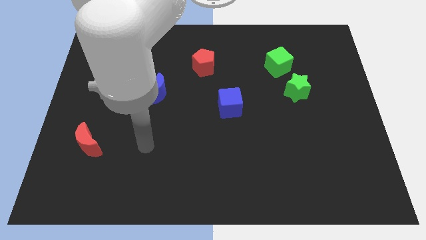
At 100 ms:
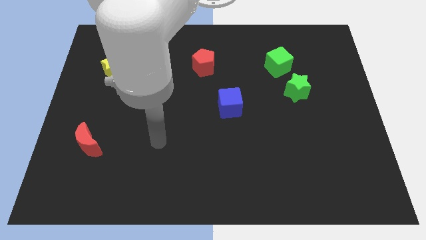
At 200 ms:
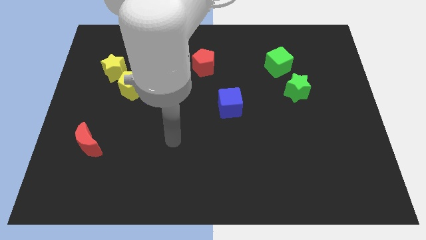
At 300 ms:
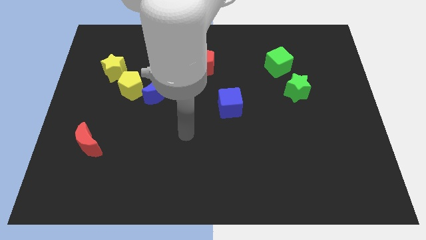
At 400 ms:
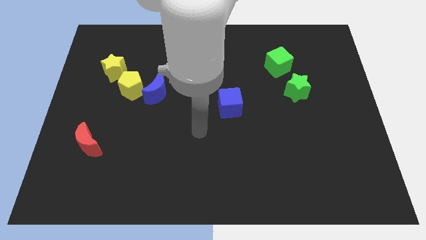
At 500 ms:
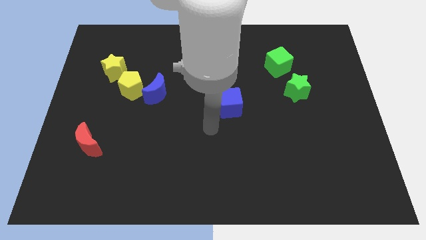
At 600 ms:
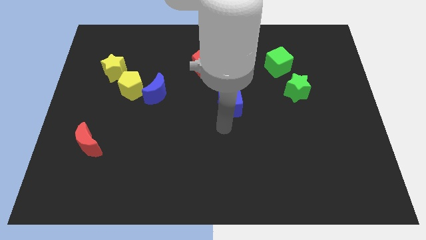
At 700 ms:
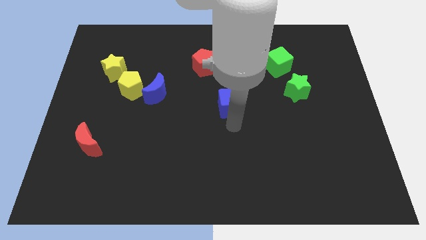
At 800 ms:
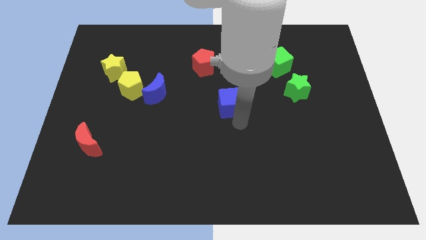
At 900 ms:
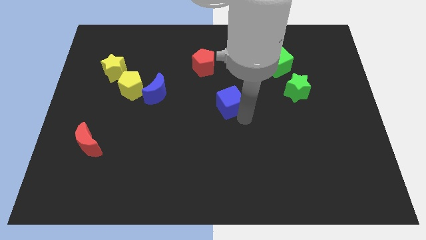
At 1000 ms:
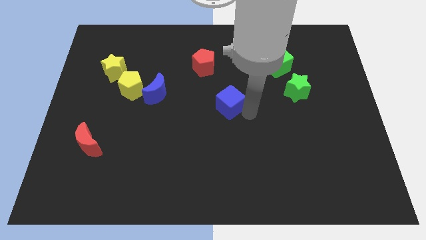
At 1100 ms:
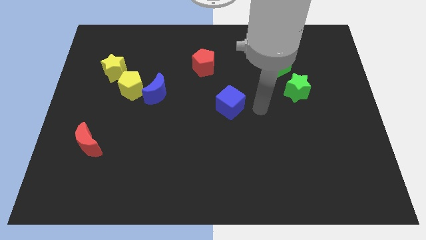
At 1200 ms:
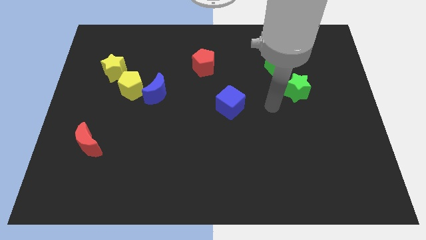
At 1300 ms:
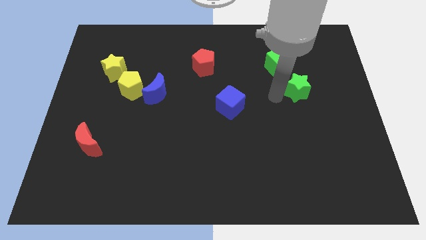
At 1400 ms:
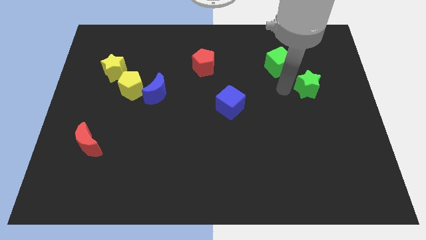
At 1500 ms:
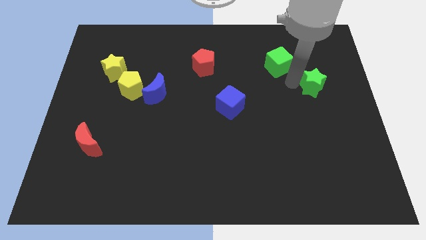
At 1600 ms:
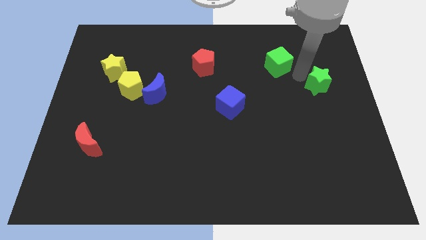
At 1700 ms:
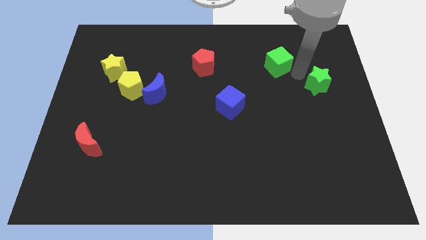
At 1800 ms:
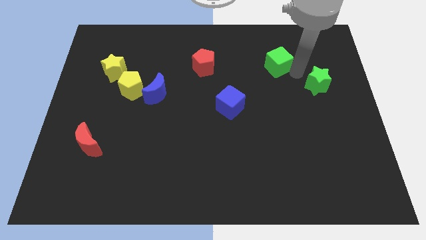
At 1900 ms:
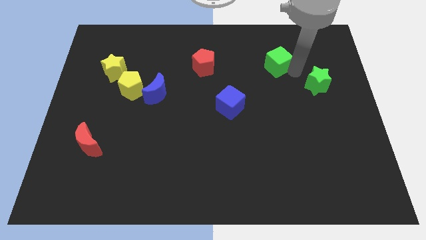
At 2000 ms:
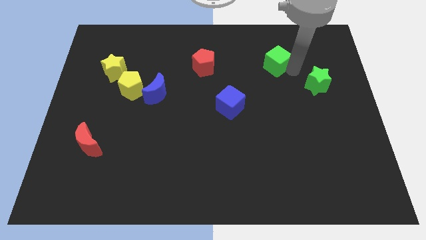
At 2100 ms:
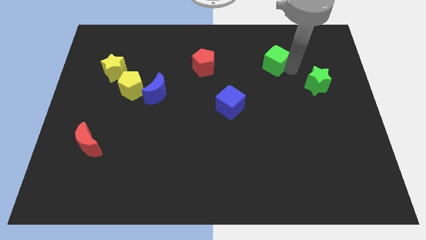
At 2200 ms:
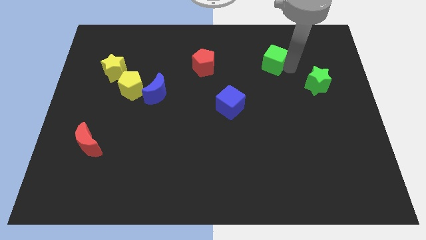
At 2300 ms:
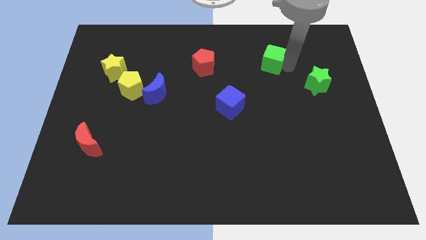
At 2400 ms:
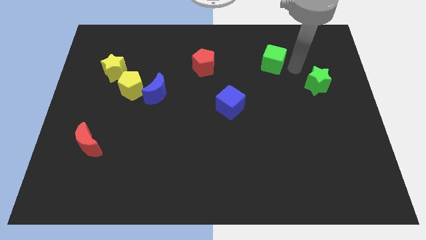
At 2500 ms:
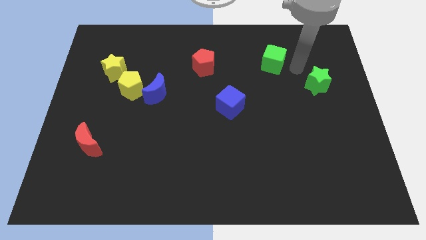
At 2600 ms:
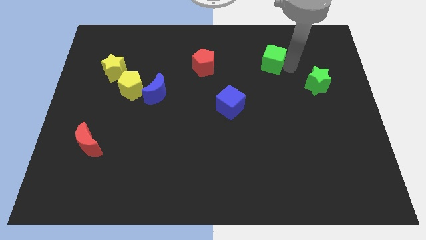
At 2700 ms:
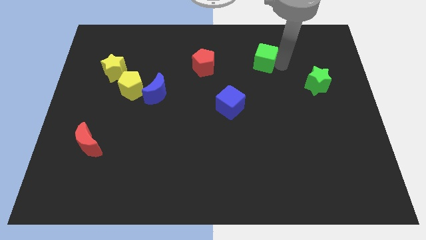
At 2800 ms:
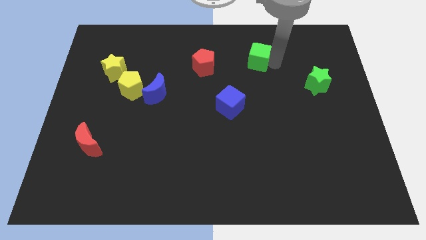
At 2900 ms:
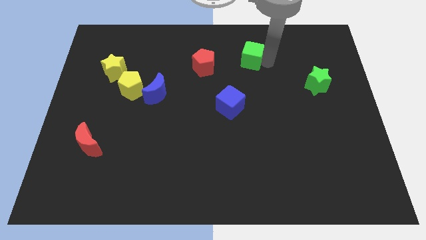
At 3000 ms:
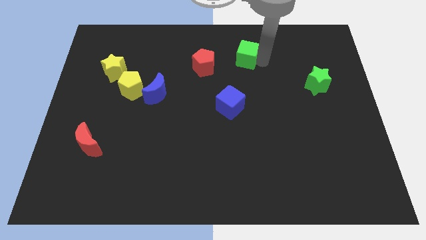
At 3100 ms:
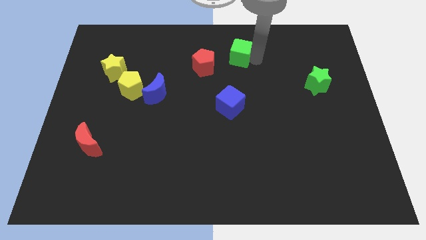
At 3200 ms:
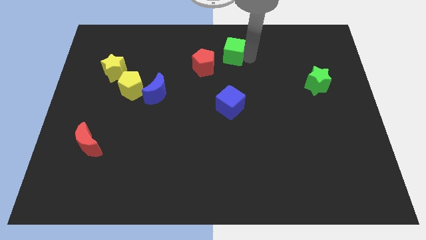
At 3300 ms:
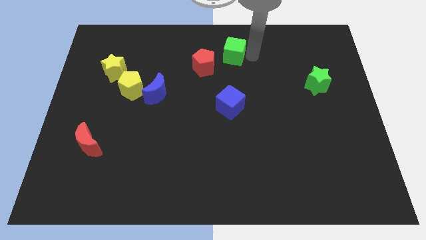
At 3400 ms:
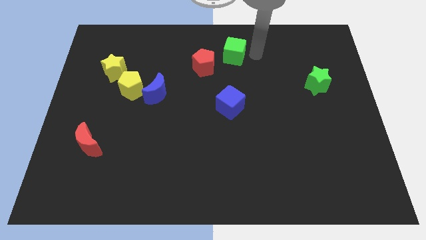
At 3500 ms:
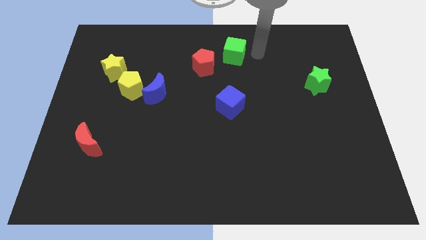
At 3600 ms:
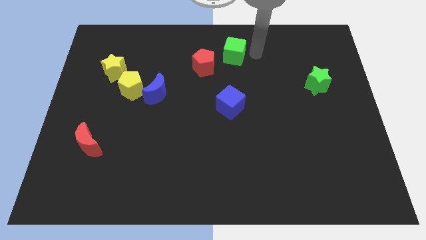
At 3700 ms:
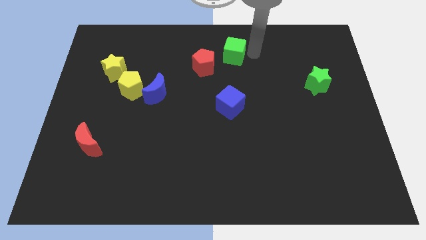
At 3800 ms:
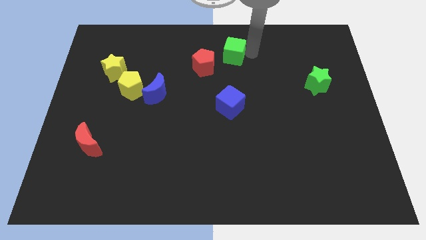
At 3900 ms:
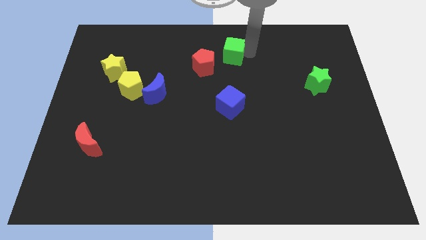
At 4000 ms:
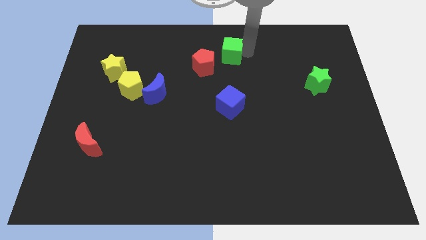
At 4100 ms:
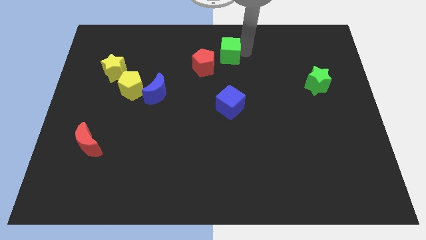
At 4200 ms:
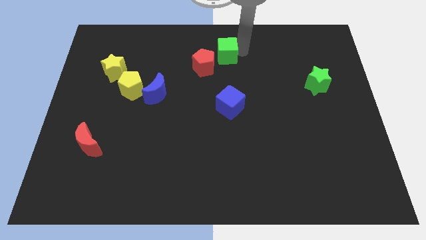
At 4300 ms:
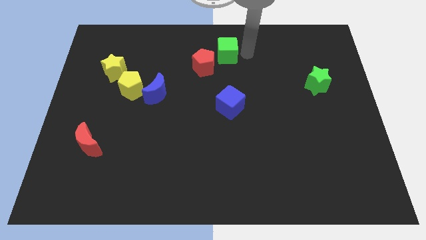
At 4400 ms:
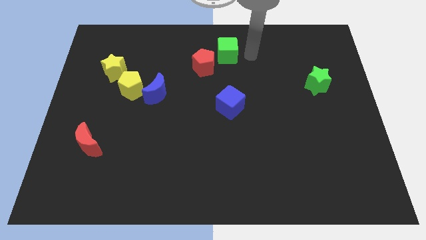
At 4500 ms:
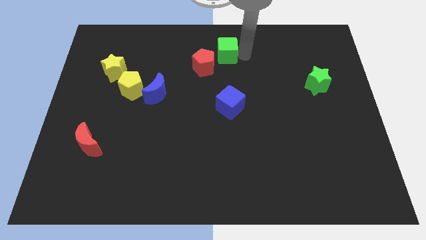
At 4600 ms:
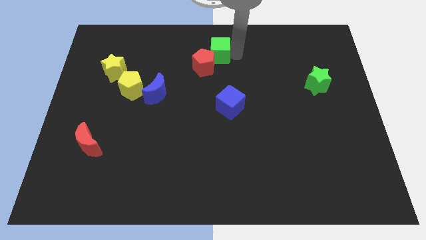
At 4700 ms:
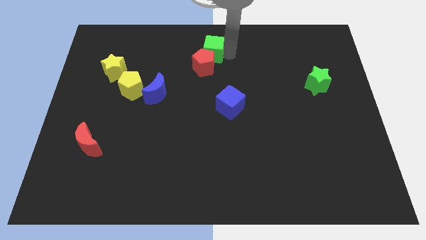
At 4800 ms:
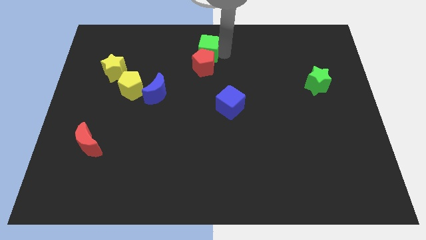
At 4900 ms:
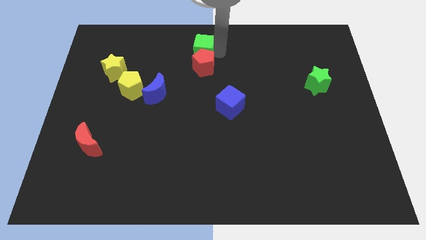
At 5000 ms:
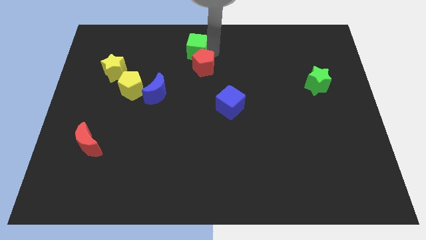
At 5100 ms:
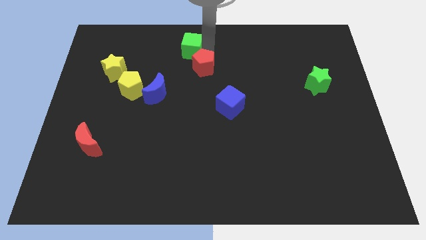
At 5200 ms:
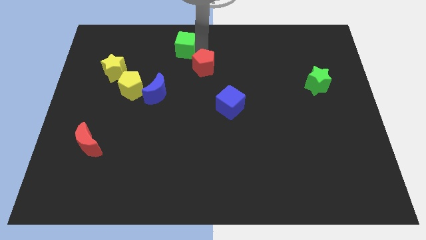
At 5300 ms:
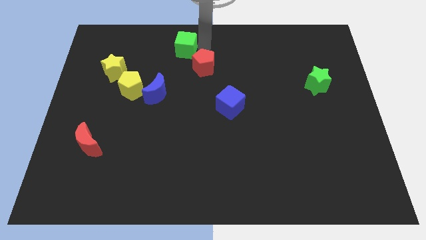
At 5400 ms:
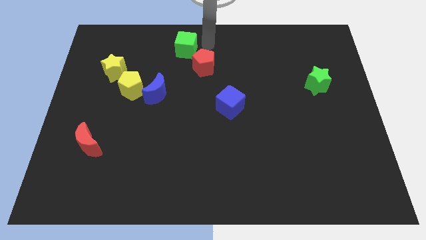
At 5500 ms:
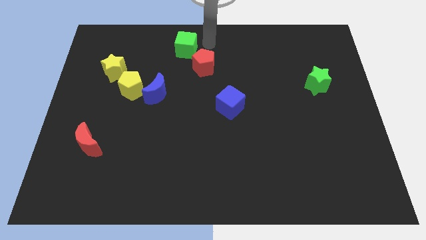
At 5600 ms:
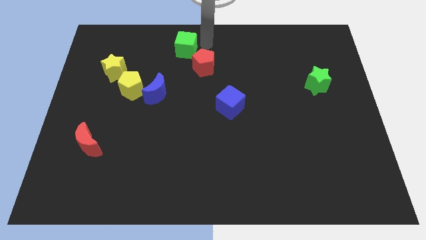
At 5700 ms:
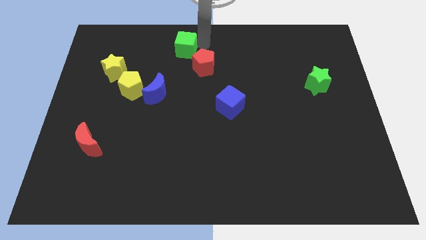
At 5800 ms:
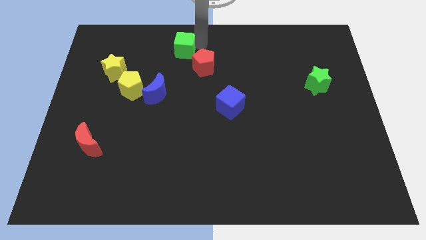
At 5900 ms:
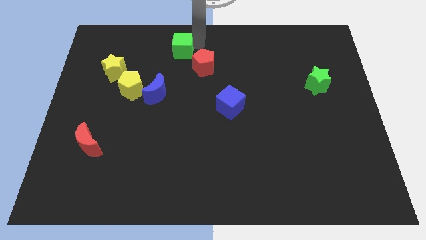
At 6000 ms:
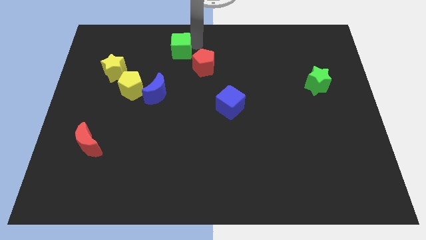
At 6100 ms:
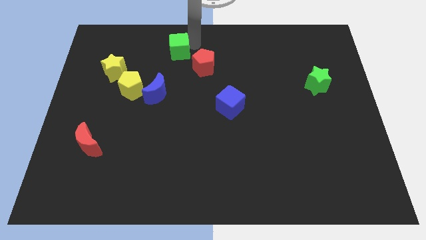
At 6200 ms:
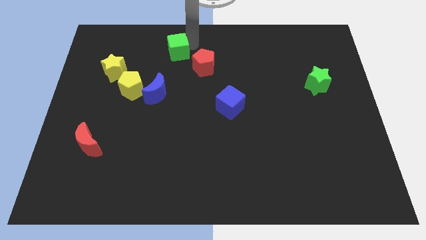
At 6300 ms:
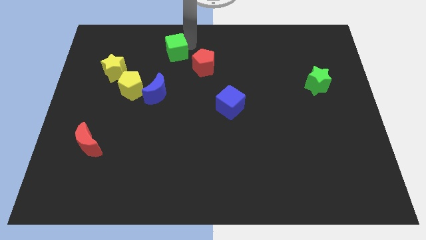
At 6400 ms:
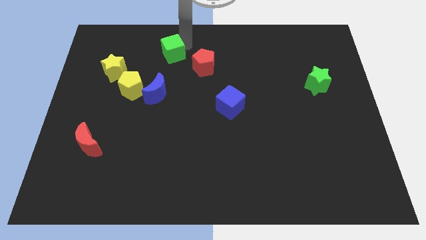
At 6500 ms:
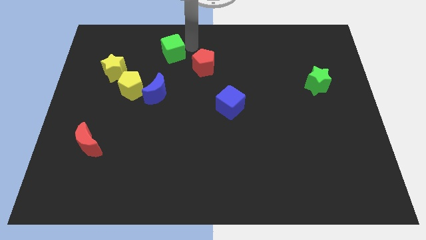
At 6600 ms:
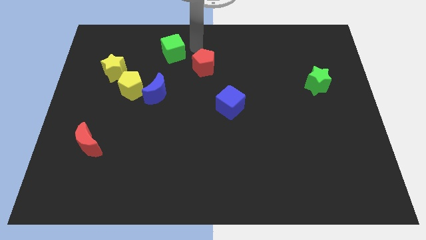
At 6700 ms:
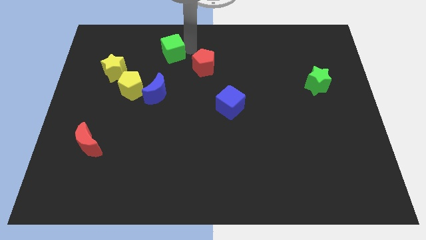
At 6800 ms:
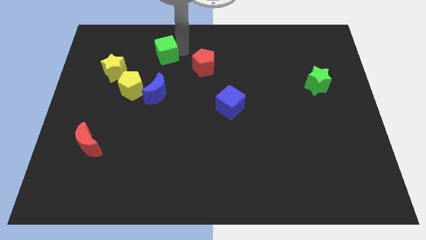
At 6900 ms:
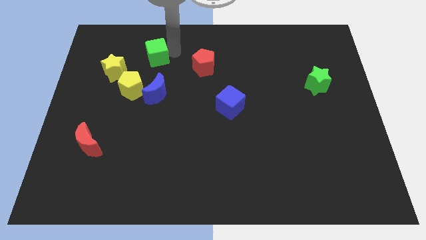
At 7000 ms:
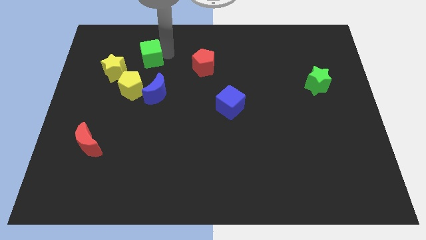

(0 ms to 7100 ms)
push the green cube to the top side of the yellow pentagon

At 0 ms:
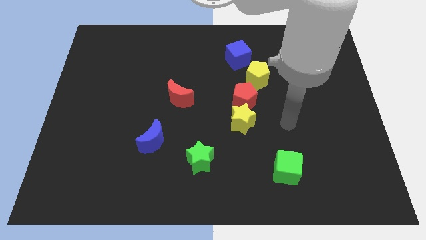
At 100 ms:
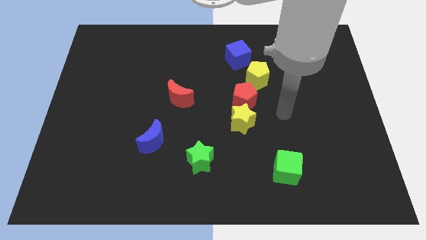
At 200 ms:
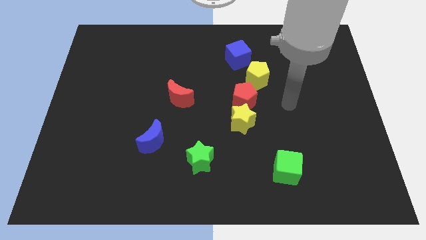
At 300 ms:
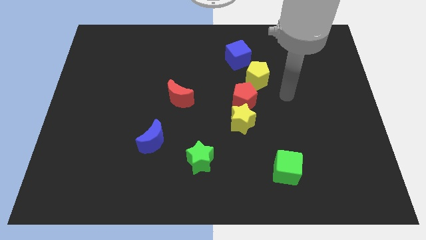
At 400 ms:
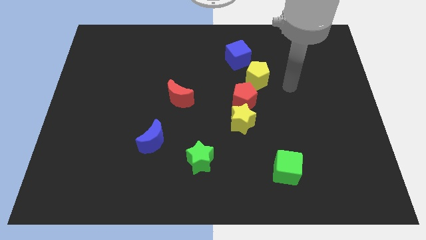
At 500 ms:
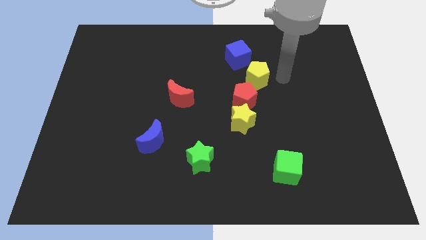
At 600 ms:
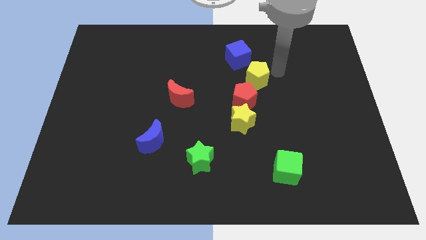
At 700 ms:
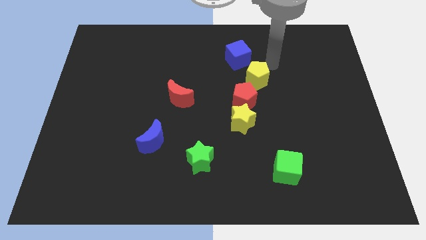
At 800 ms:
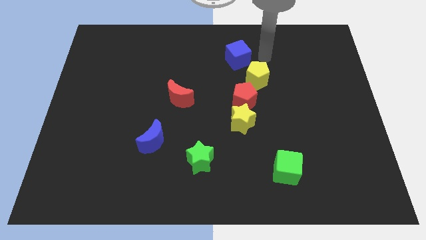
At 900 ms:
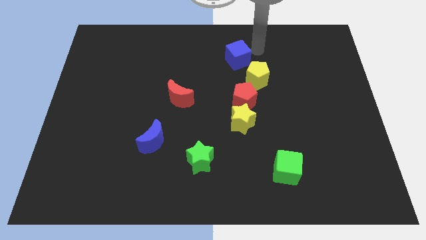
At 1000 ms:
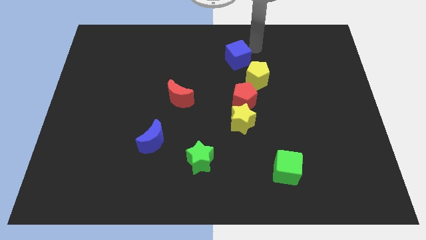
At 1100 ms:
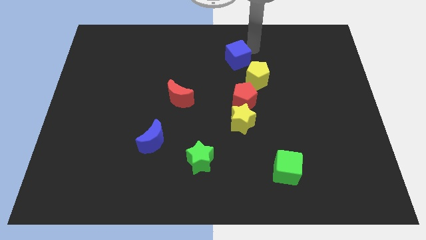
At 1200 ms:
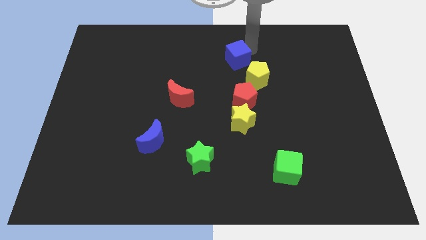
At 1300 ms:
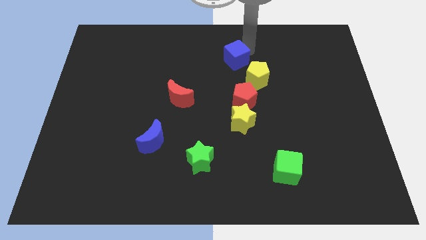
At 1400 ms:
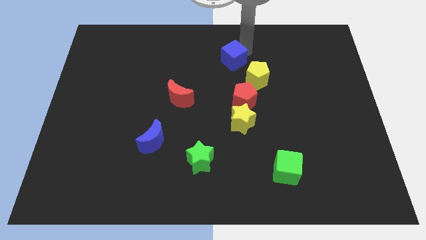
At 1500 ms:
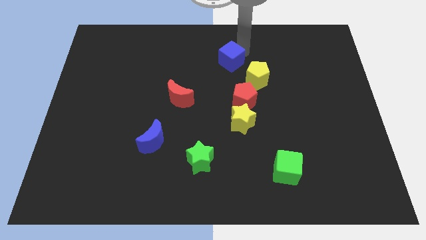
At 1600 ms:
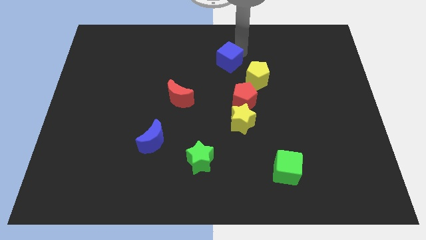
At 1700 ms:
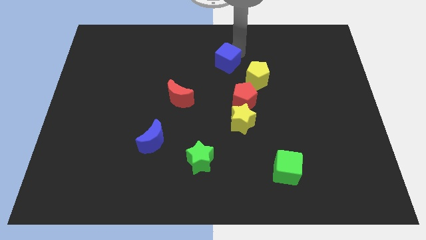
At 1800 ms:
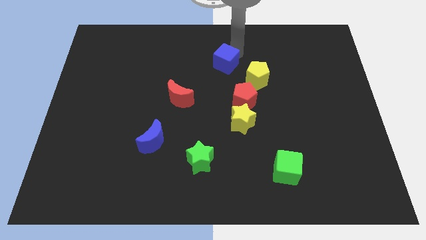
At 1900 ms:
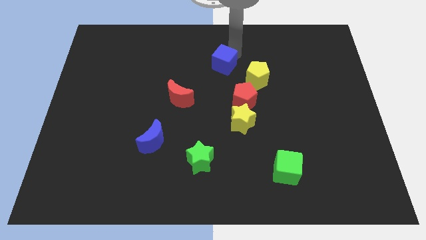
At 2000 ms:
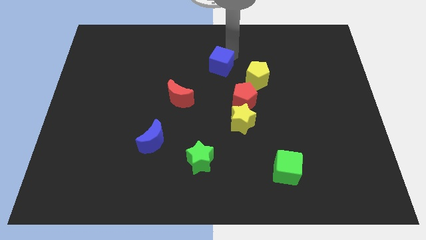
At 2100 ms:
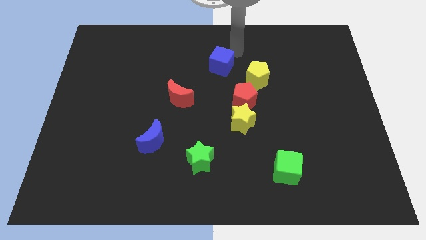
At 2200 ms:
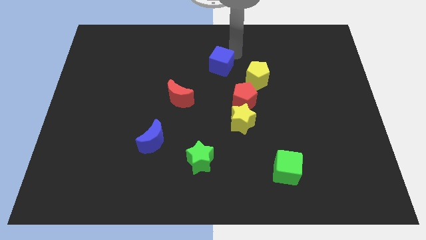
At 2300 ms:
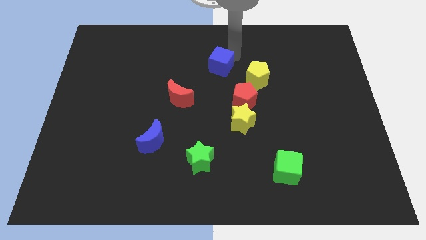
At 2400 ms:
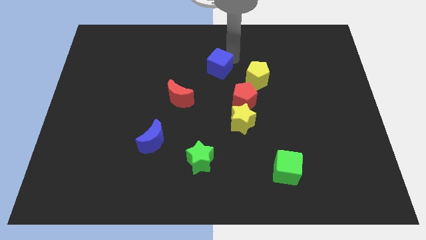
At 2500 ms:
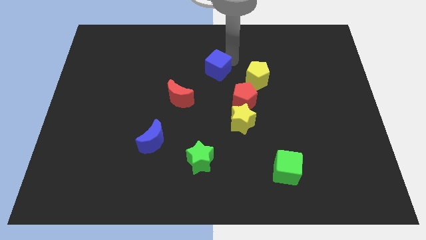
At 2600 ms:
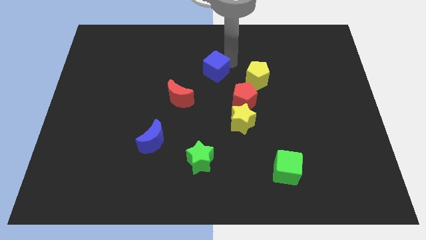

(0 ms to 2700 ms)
put the blue cube diagonally up and to the right of the red moon
